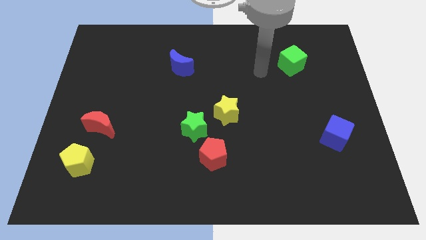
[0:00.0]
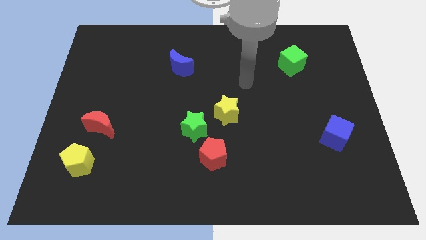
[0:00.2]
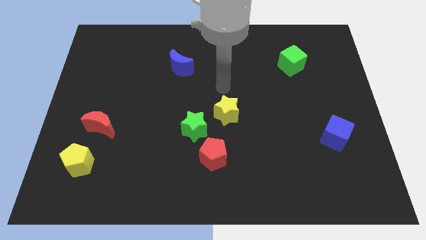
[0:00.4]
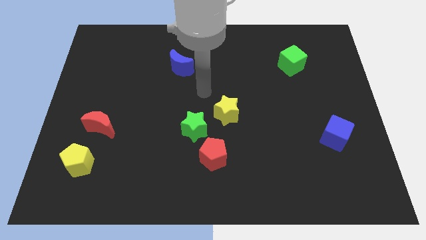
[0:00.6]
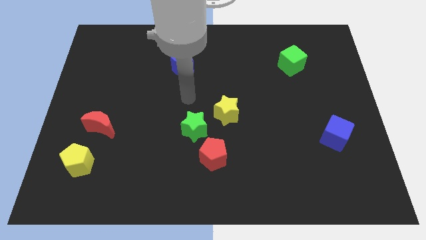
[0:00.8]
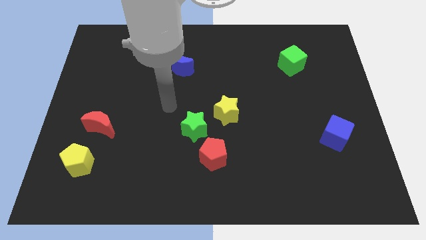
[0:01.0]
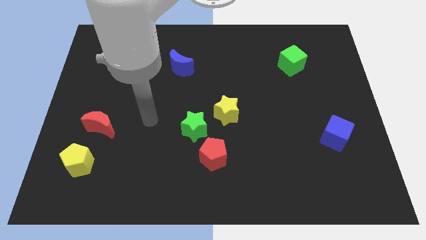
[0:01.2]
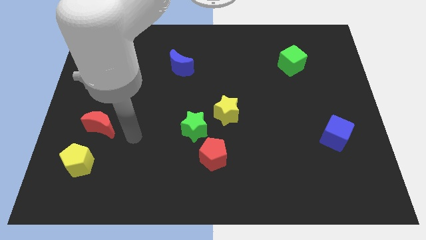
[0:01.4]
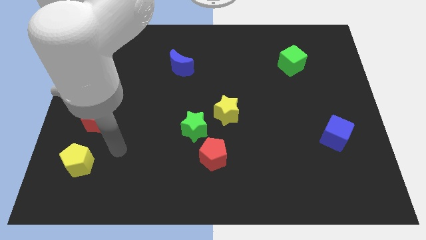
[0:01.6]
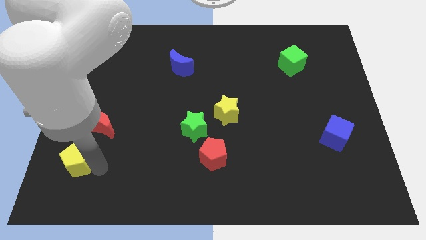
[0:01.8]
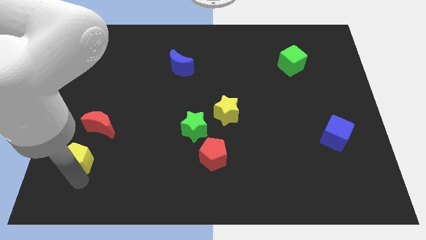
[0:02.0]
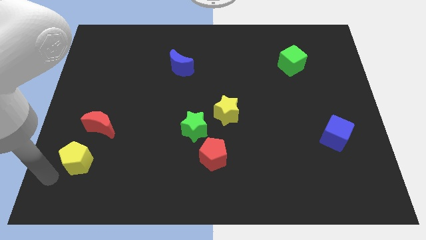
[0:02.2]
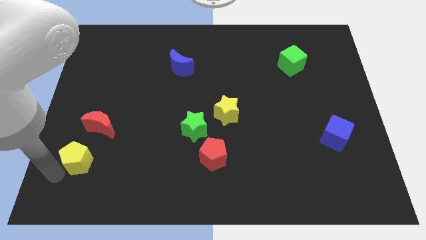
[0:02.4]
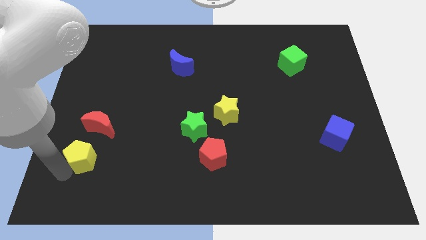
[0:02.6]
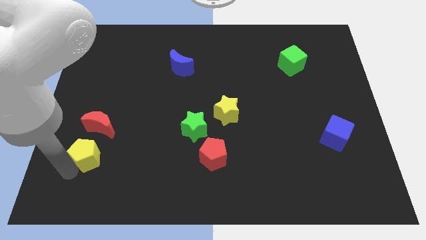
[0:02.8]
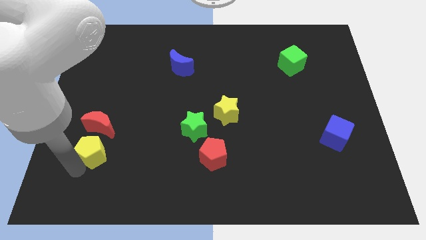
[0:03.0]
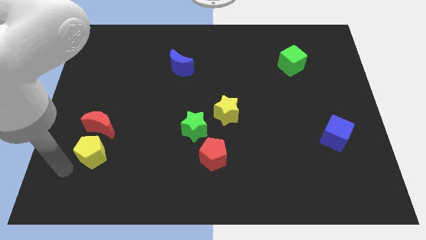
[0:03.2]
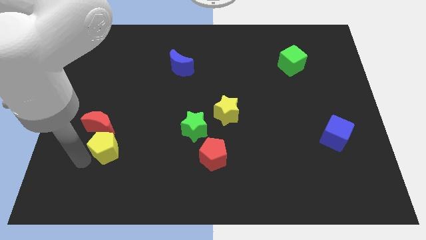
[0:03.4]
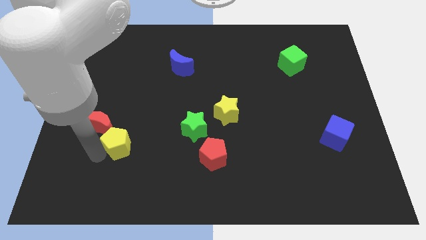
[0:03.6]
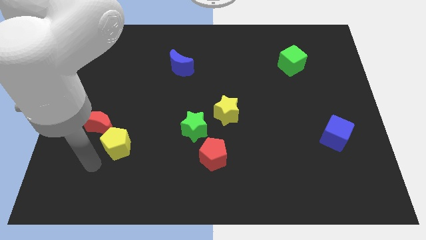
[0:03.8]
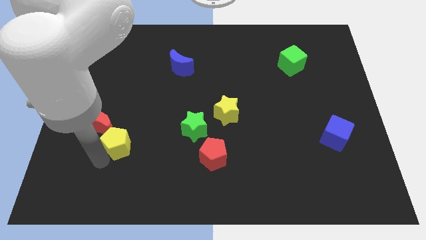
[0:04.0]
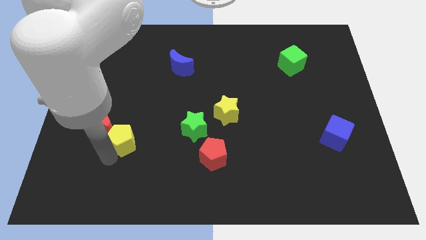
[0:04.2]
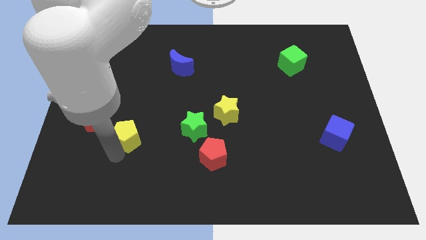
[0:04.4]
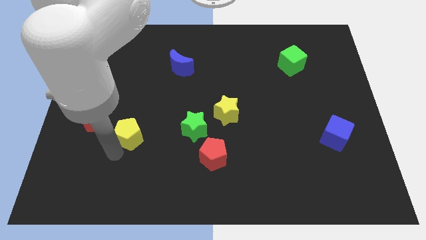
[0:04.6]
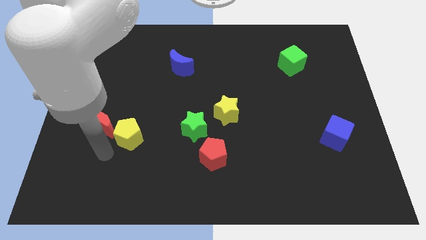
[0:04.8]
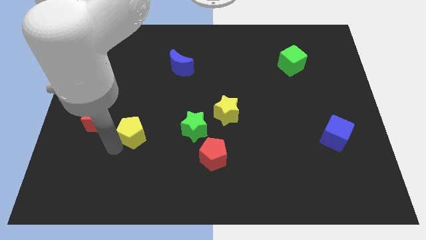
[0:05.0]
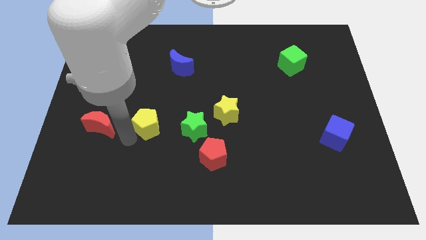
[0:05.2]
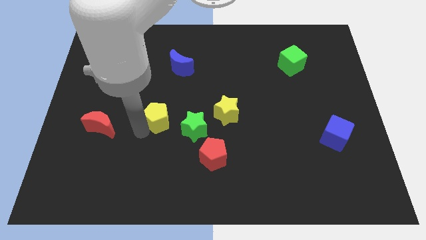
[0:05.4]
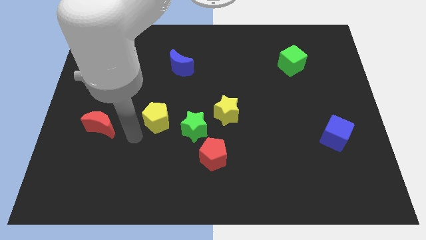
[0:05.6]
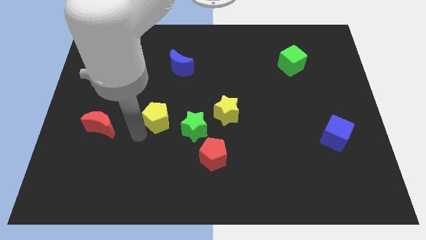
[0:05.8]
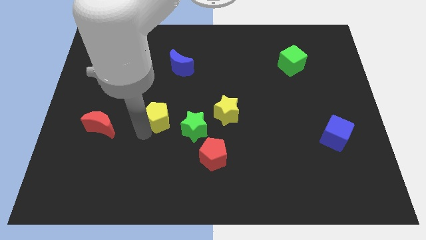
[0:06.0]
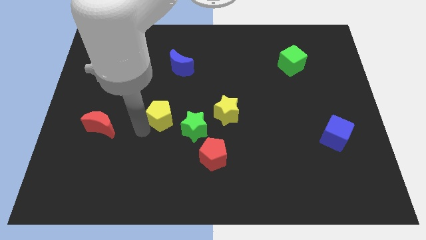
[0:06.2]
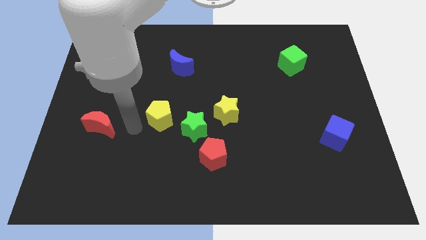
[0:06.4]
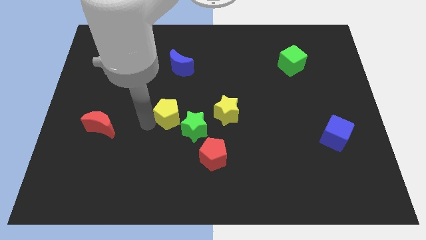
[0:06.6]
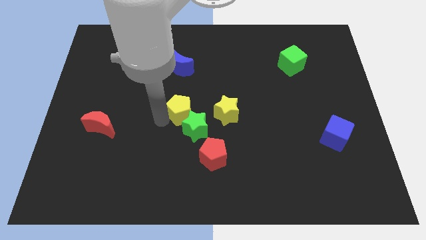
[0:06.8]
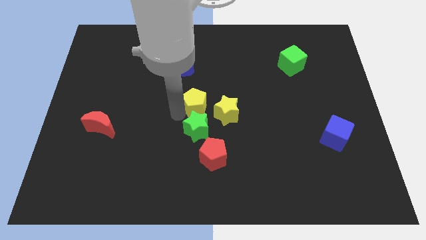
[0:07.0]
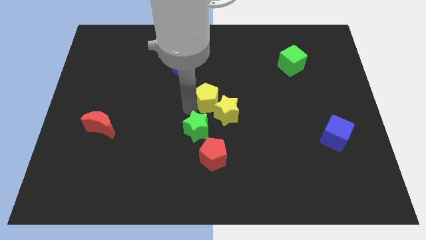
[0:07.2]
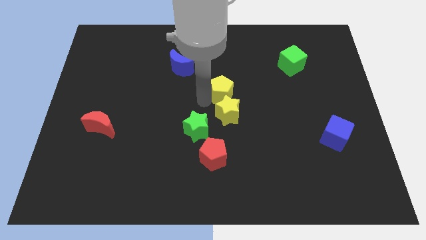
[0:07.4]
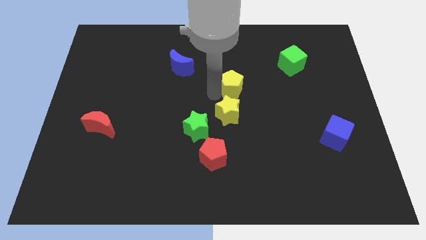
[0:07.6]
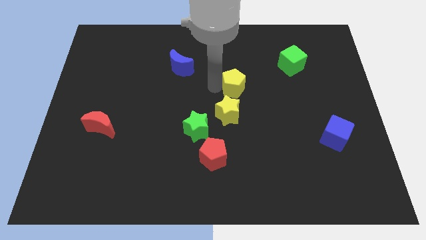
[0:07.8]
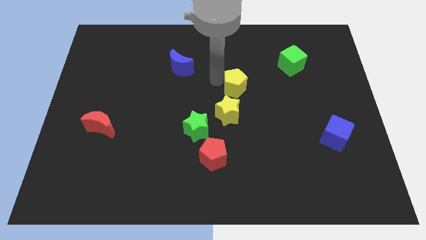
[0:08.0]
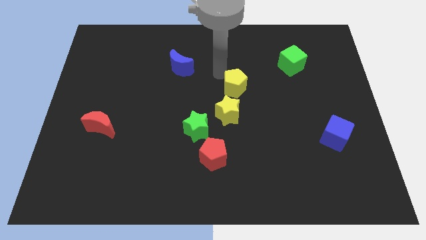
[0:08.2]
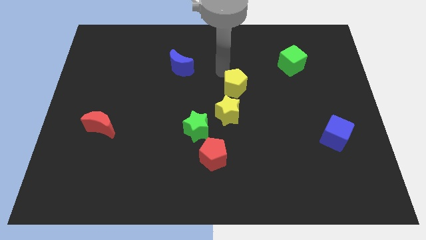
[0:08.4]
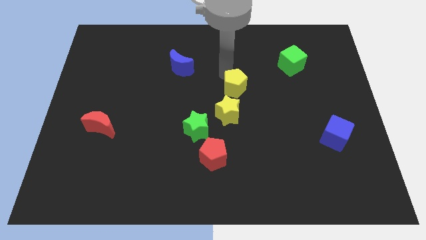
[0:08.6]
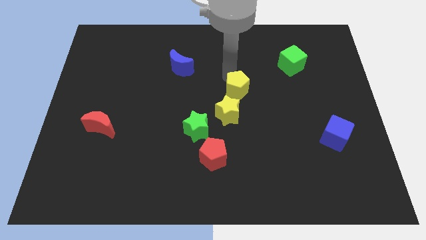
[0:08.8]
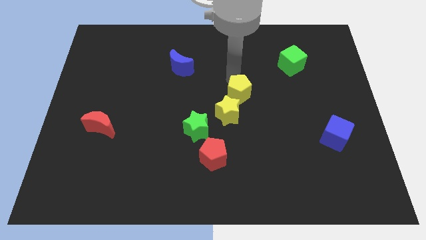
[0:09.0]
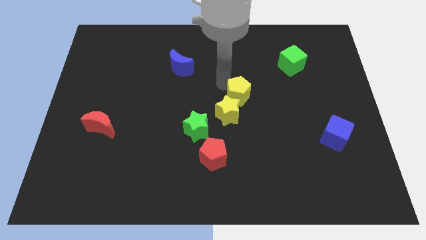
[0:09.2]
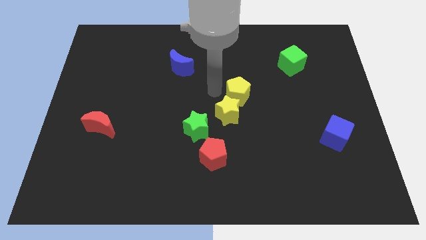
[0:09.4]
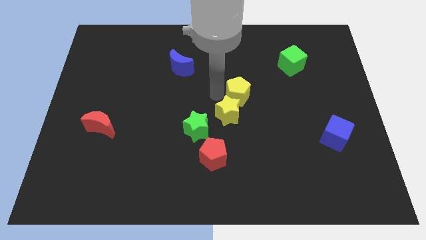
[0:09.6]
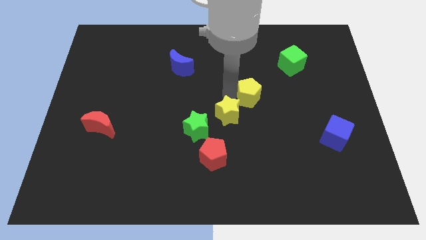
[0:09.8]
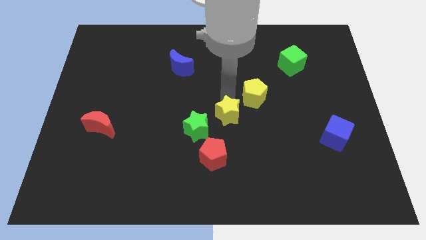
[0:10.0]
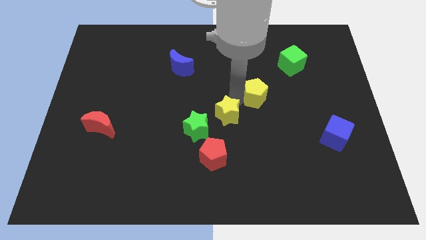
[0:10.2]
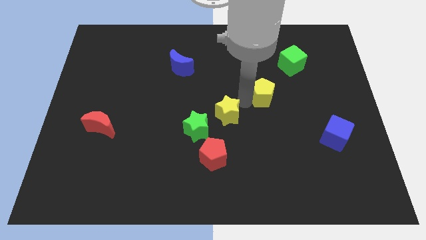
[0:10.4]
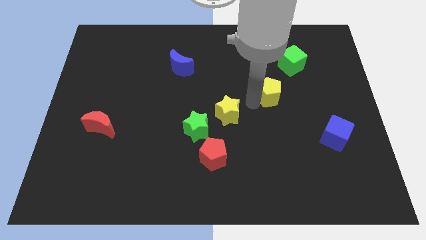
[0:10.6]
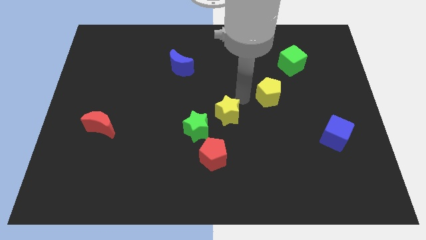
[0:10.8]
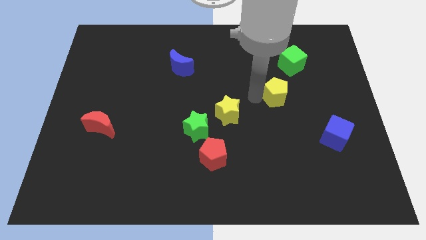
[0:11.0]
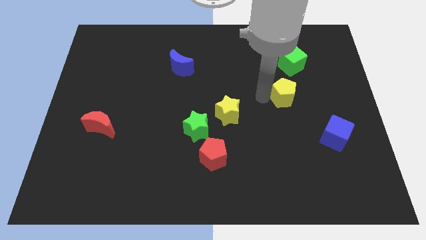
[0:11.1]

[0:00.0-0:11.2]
push the yellow pentagon below the green cube

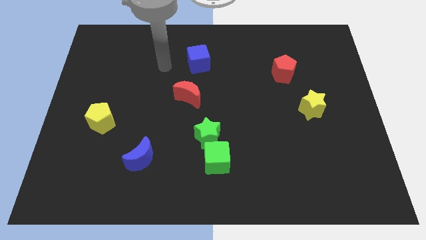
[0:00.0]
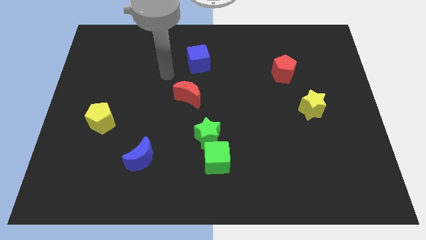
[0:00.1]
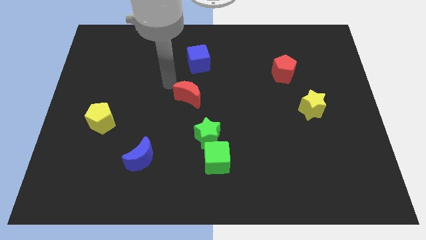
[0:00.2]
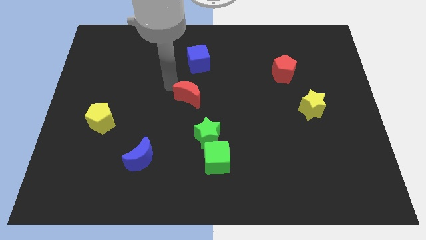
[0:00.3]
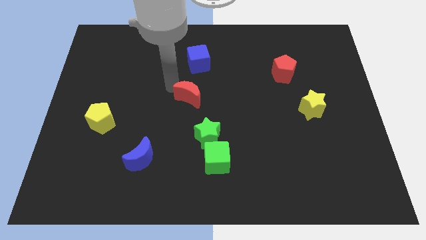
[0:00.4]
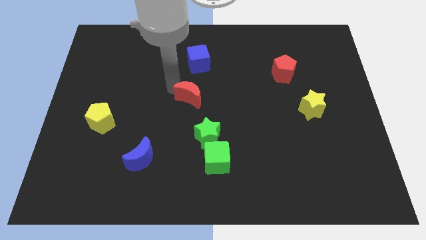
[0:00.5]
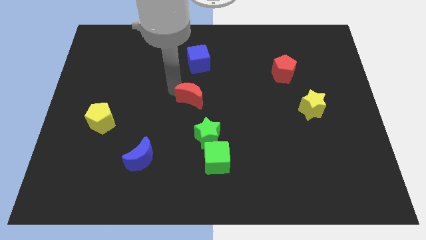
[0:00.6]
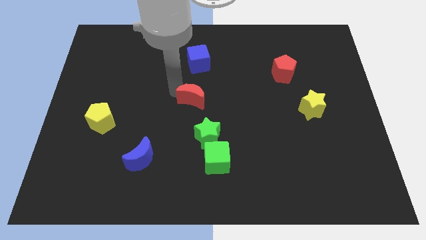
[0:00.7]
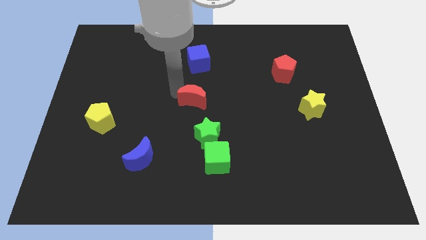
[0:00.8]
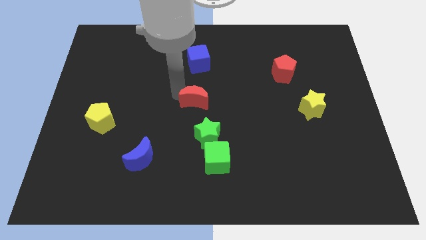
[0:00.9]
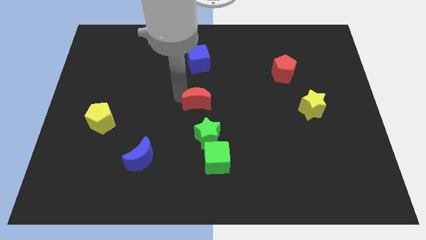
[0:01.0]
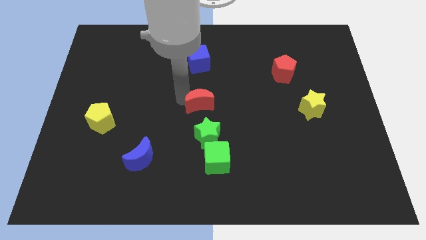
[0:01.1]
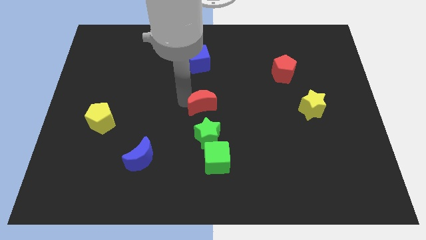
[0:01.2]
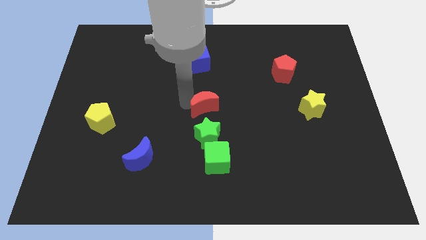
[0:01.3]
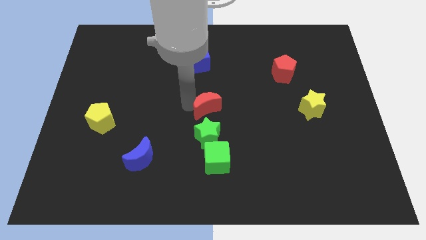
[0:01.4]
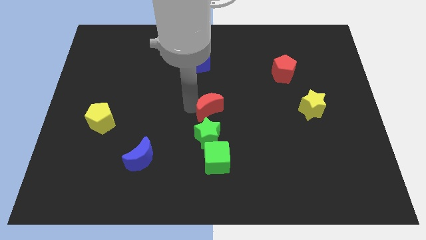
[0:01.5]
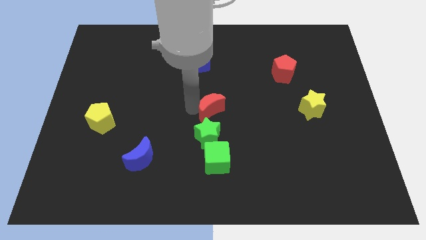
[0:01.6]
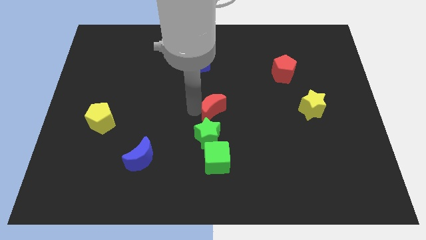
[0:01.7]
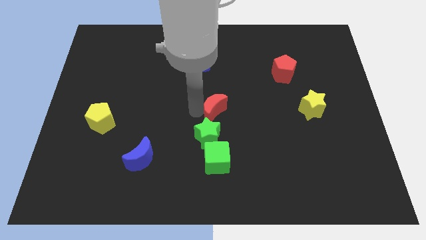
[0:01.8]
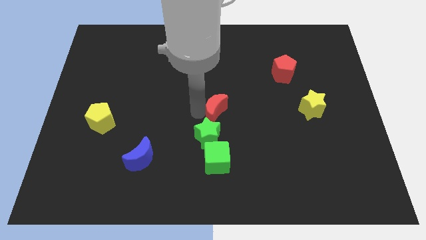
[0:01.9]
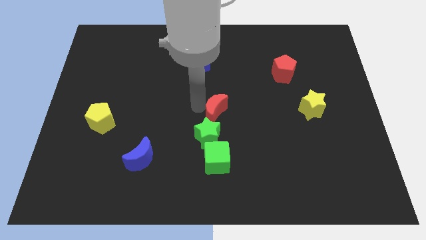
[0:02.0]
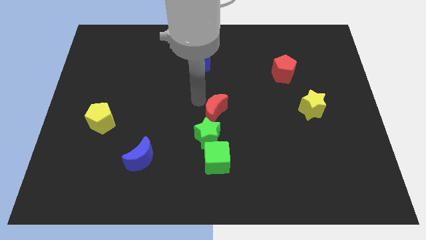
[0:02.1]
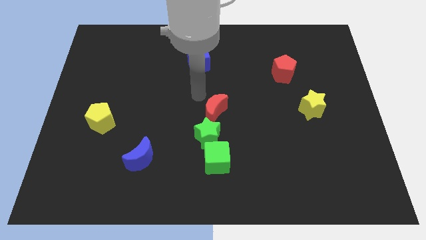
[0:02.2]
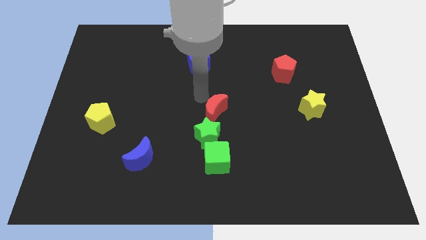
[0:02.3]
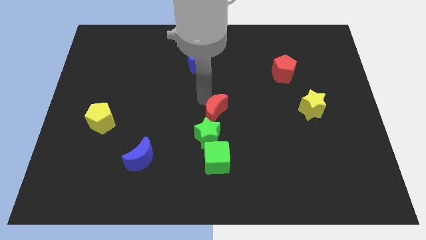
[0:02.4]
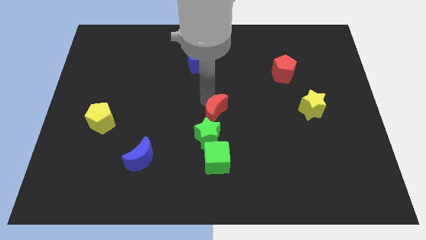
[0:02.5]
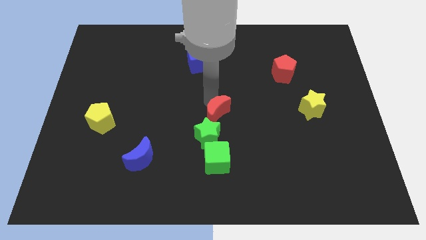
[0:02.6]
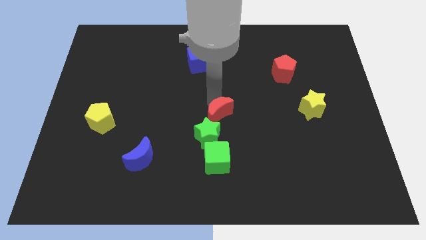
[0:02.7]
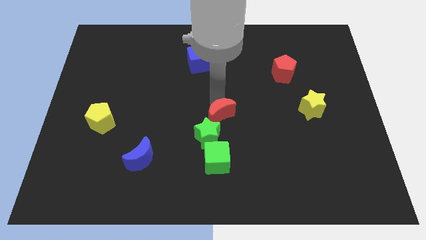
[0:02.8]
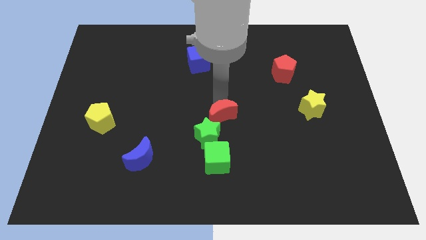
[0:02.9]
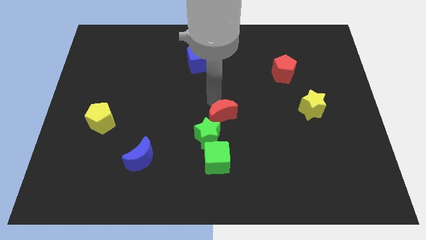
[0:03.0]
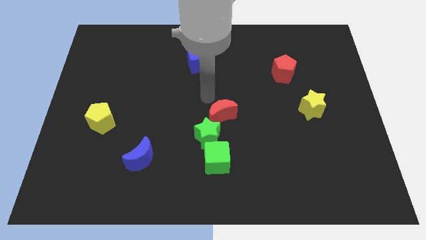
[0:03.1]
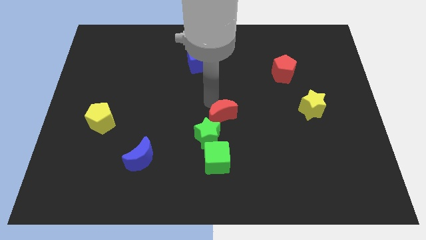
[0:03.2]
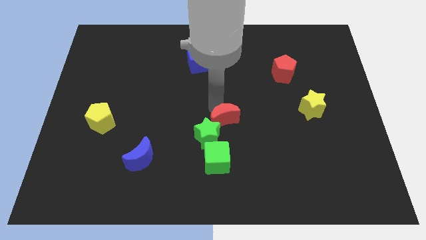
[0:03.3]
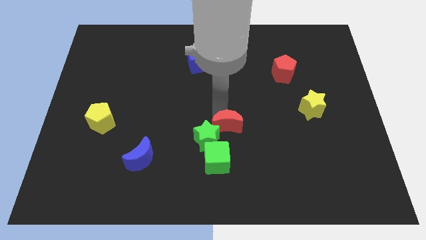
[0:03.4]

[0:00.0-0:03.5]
move the red moon to the top right side of the green cube
